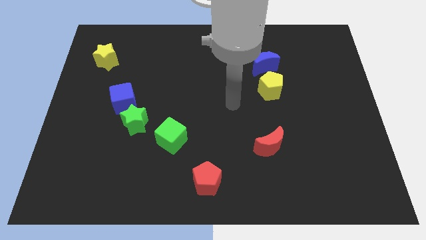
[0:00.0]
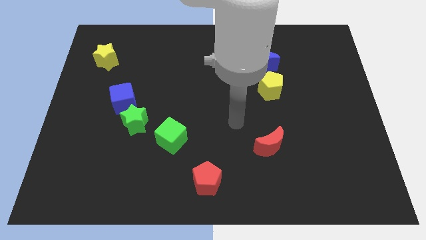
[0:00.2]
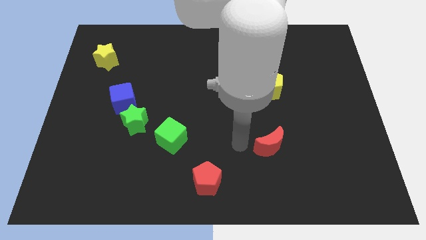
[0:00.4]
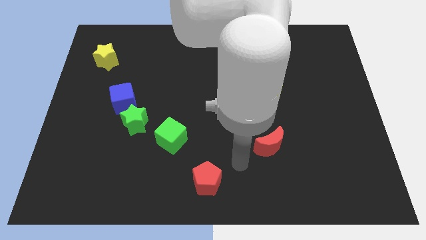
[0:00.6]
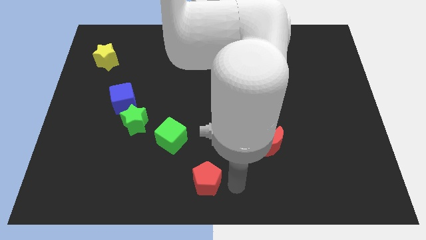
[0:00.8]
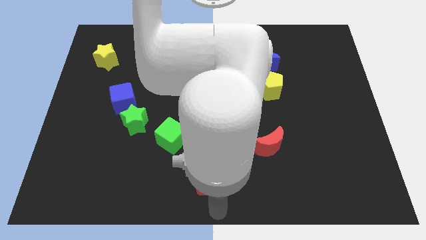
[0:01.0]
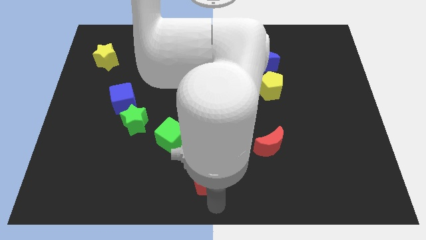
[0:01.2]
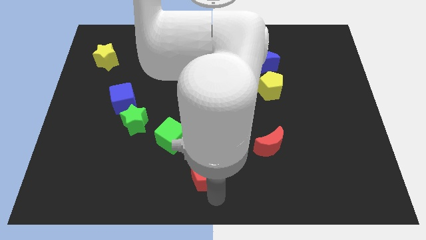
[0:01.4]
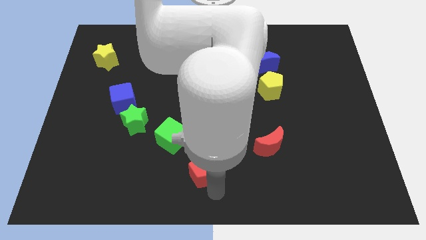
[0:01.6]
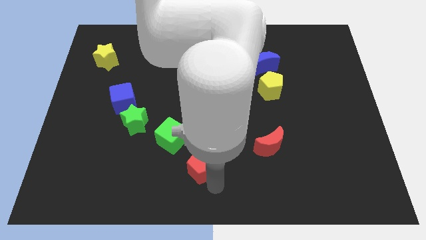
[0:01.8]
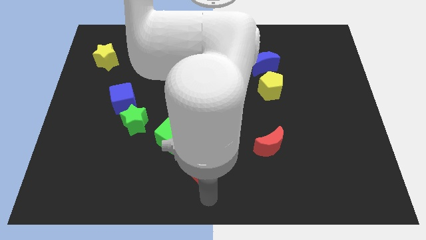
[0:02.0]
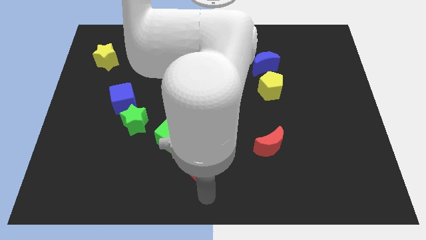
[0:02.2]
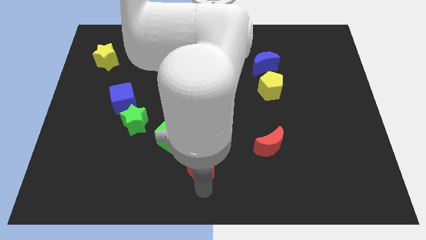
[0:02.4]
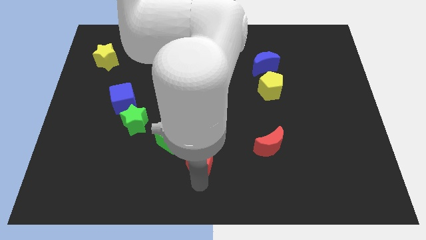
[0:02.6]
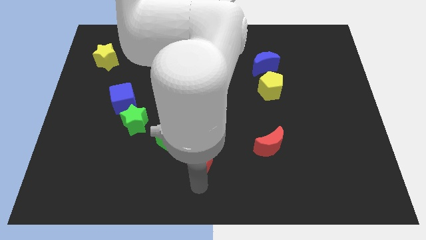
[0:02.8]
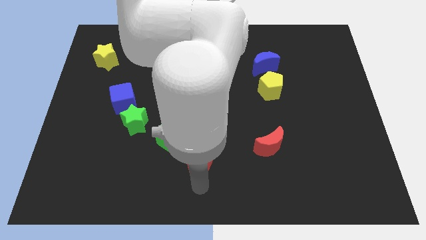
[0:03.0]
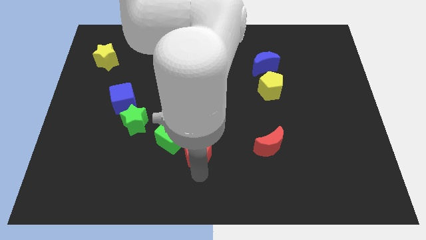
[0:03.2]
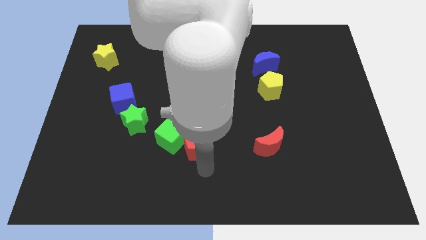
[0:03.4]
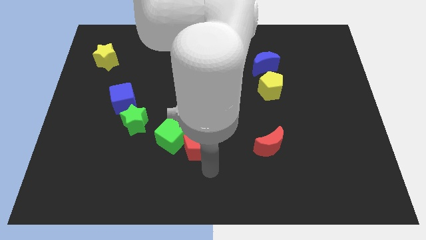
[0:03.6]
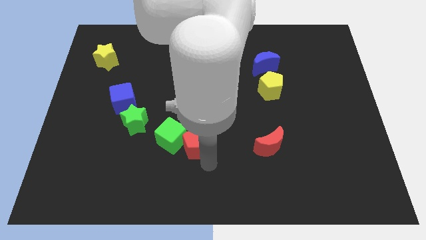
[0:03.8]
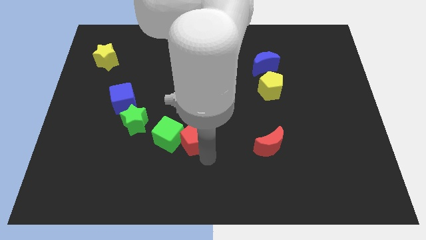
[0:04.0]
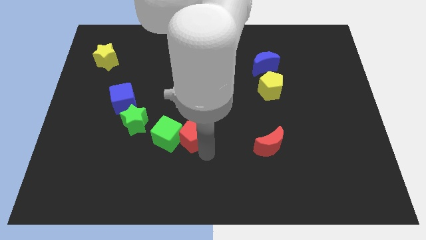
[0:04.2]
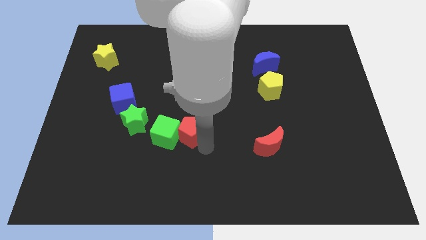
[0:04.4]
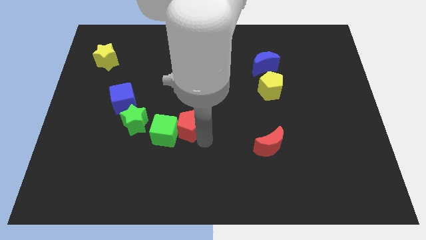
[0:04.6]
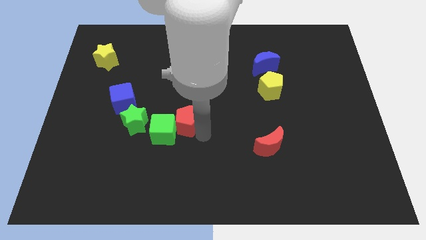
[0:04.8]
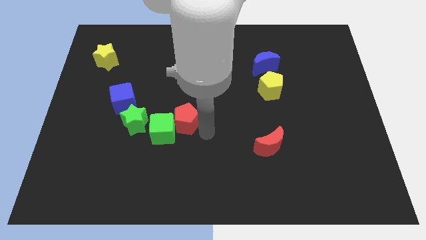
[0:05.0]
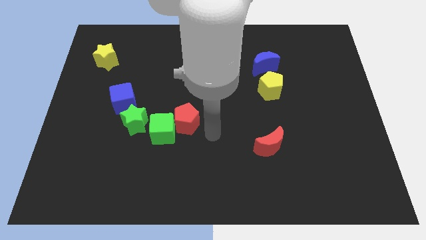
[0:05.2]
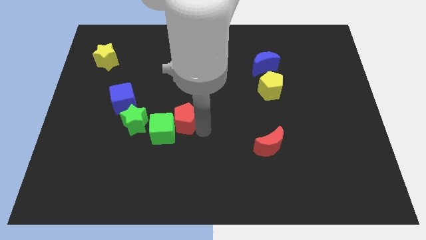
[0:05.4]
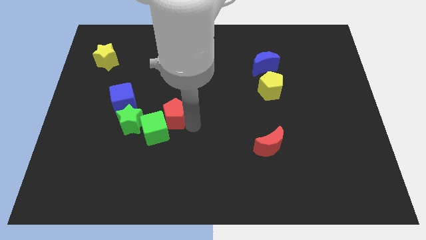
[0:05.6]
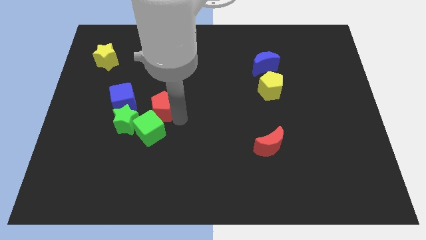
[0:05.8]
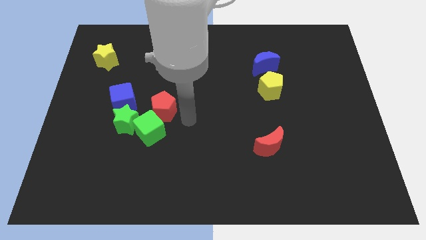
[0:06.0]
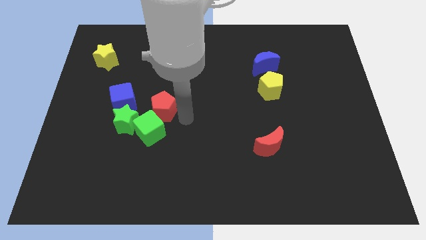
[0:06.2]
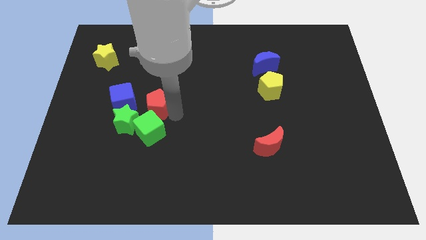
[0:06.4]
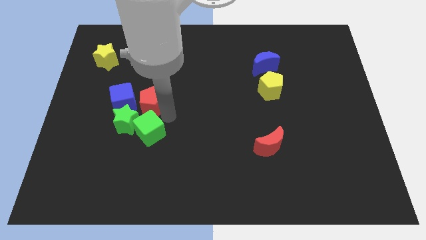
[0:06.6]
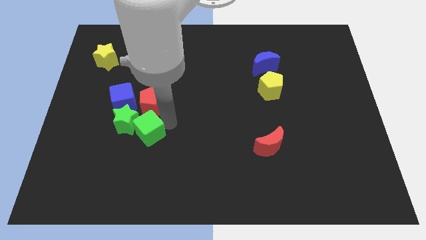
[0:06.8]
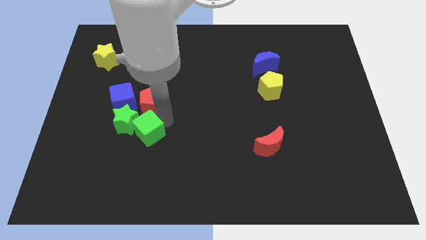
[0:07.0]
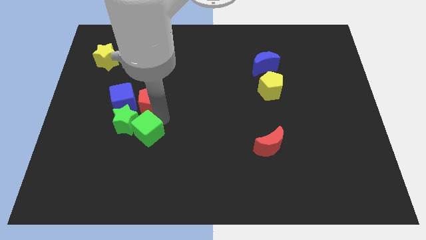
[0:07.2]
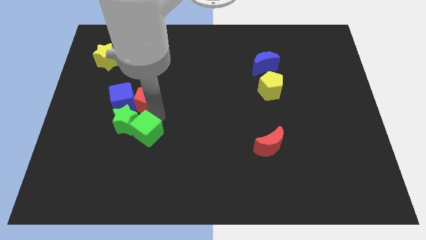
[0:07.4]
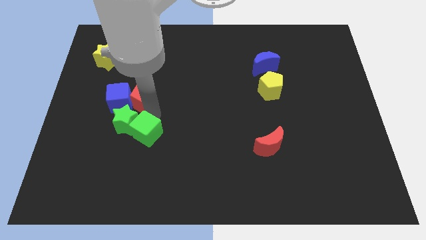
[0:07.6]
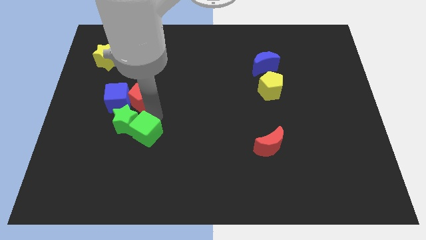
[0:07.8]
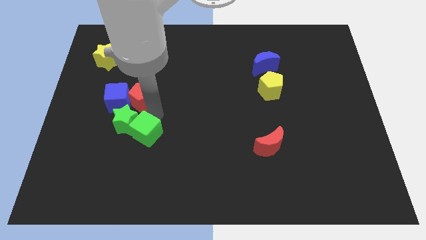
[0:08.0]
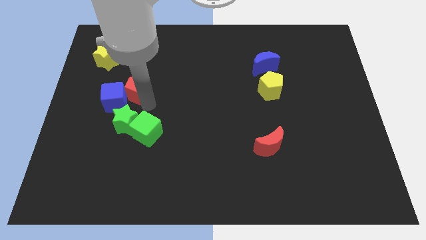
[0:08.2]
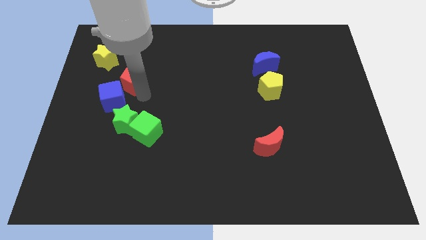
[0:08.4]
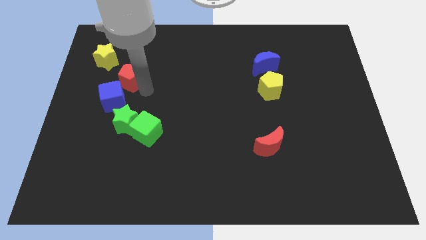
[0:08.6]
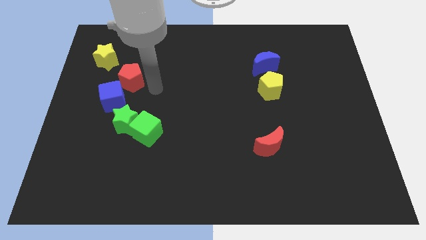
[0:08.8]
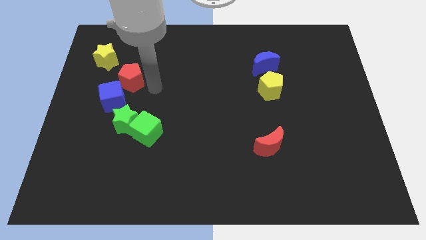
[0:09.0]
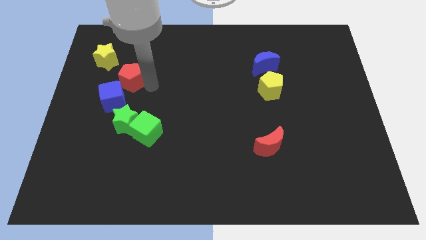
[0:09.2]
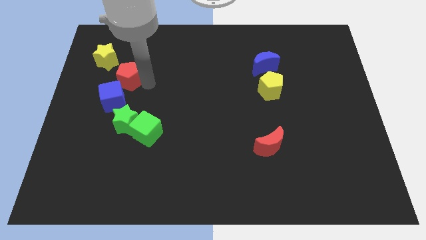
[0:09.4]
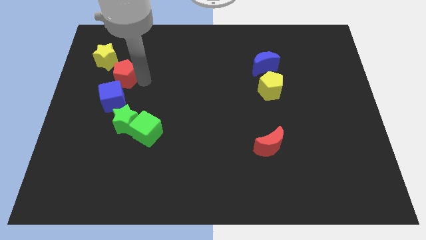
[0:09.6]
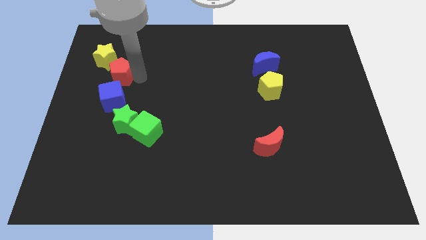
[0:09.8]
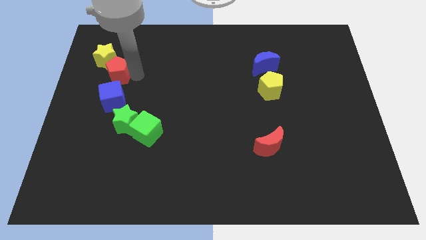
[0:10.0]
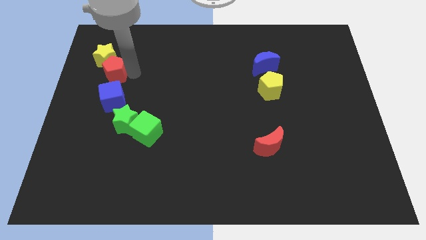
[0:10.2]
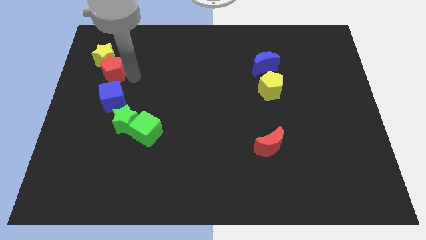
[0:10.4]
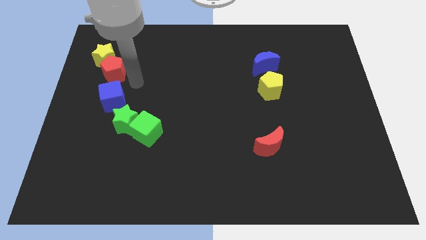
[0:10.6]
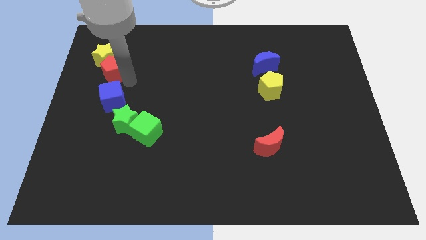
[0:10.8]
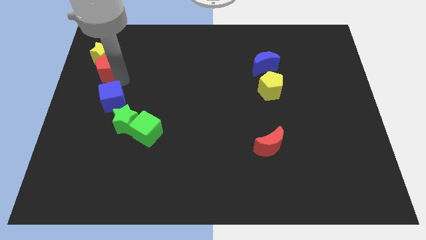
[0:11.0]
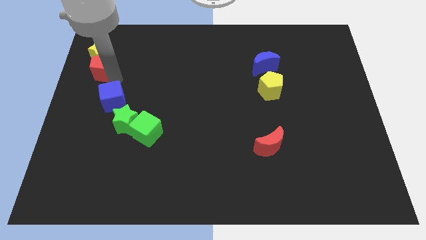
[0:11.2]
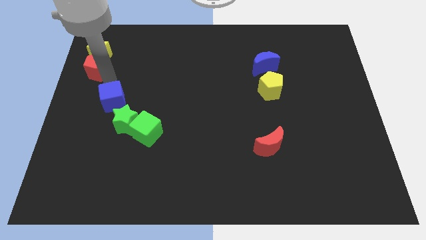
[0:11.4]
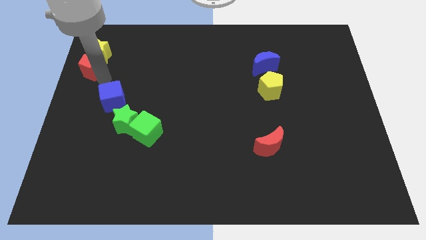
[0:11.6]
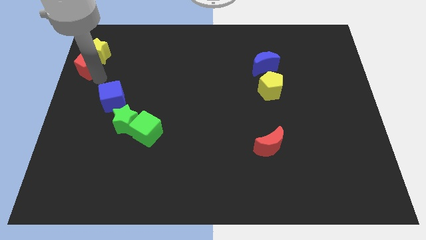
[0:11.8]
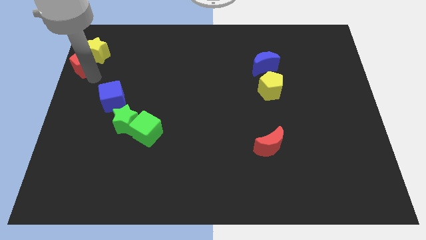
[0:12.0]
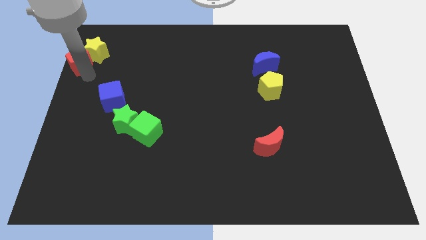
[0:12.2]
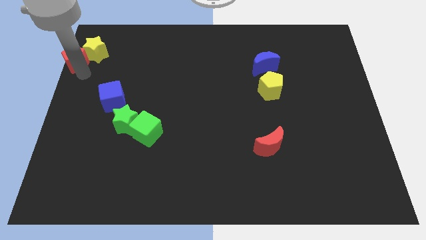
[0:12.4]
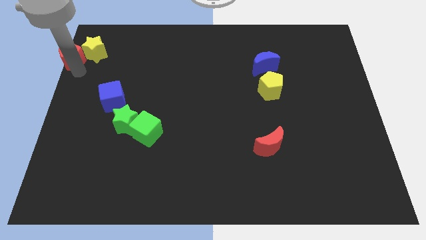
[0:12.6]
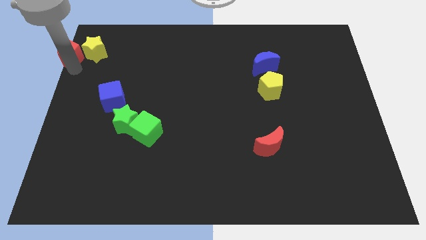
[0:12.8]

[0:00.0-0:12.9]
slide the red pentagon to the top left of the board
